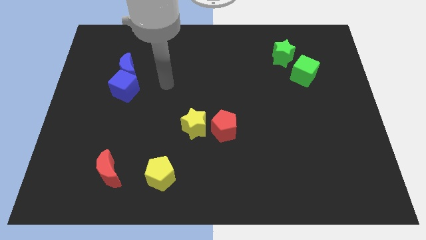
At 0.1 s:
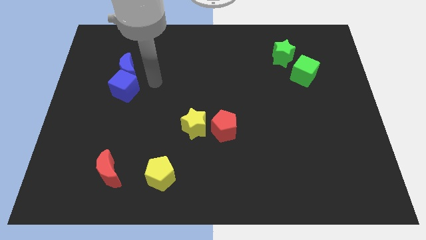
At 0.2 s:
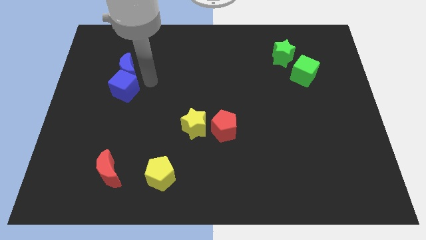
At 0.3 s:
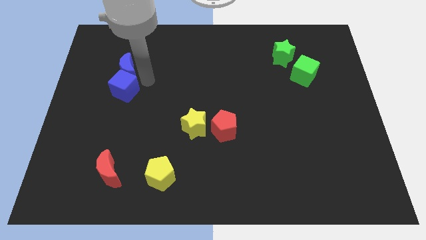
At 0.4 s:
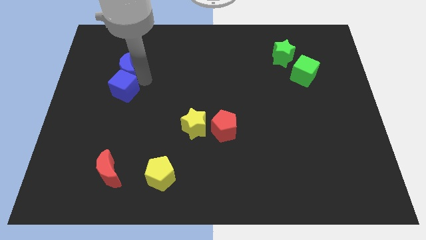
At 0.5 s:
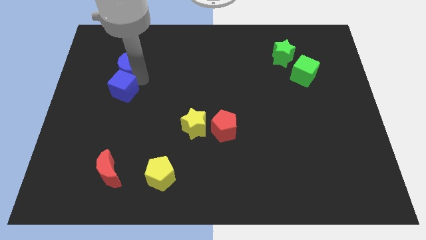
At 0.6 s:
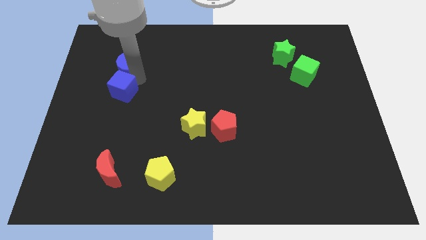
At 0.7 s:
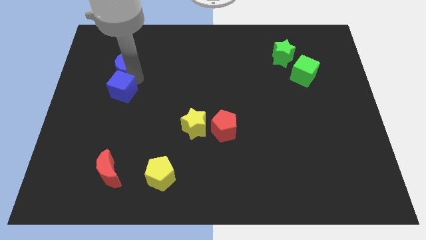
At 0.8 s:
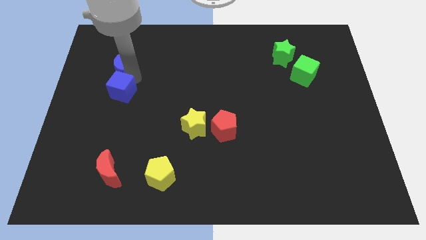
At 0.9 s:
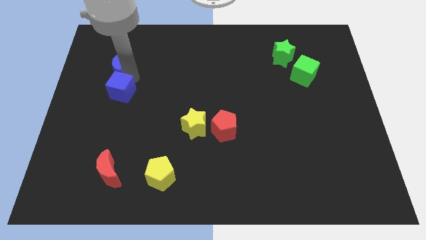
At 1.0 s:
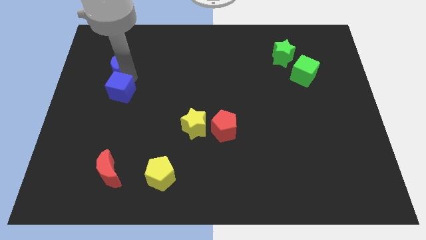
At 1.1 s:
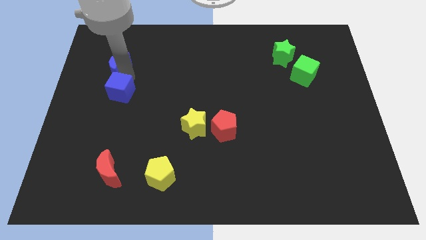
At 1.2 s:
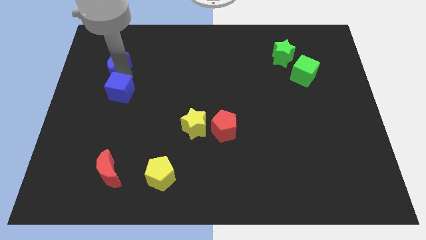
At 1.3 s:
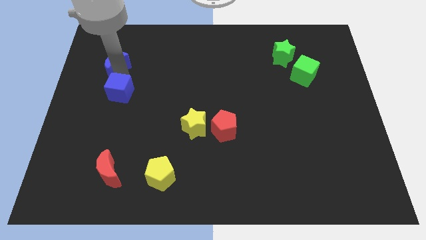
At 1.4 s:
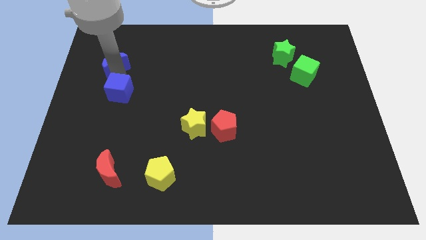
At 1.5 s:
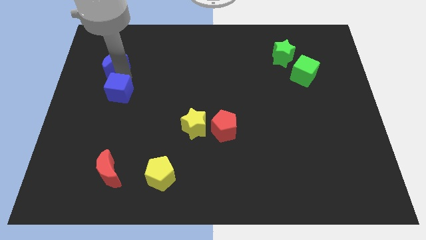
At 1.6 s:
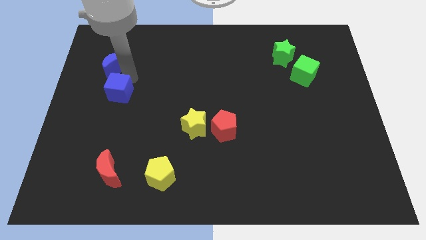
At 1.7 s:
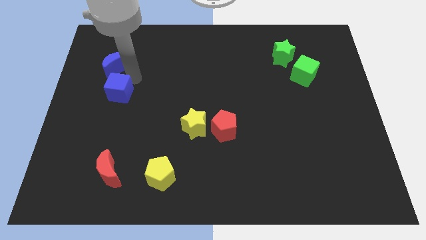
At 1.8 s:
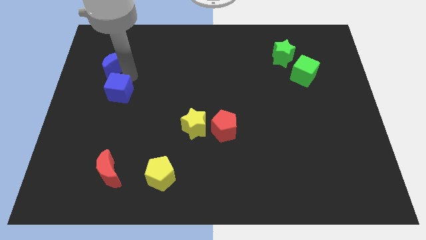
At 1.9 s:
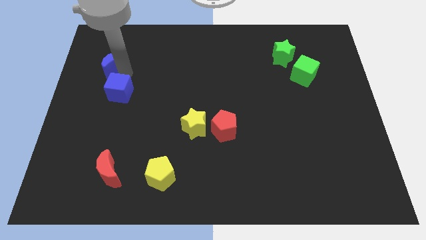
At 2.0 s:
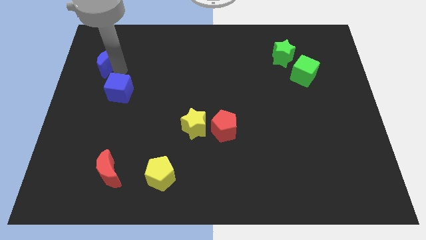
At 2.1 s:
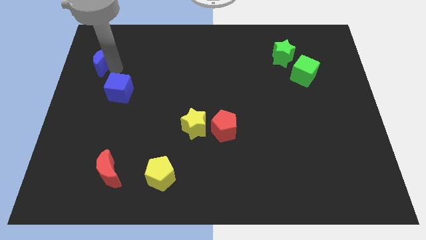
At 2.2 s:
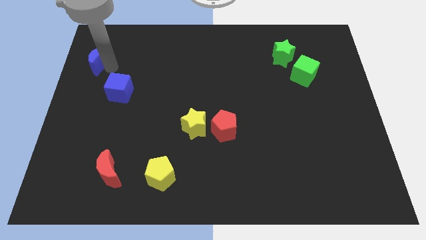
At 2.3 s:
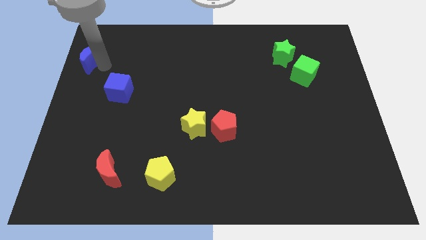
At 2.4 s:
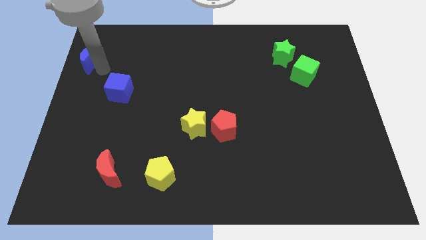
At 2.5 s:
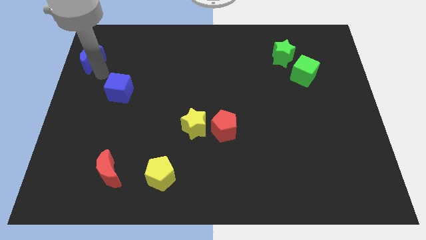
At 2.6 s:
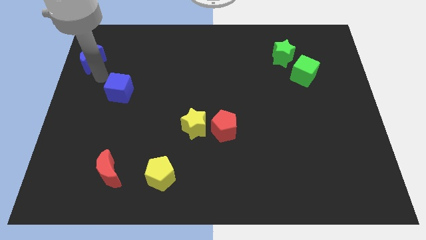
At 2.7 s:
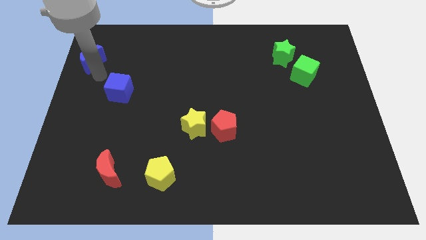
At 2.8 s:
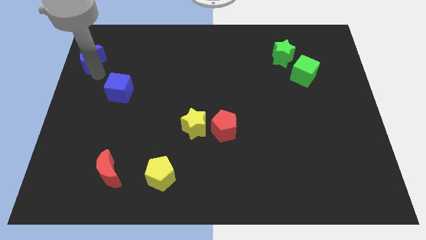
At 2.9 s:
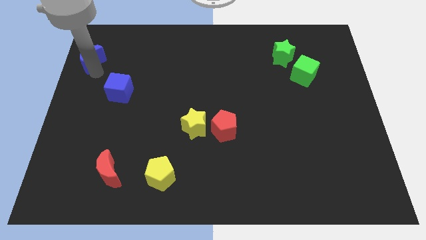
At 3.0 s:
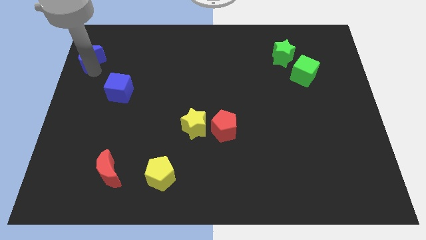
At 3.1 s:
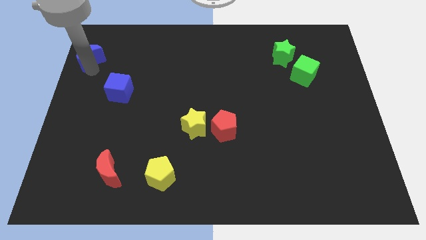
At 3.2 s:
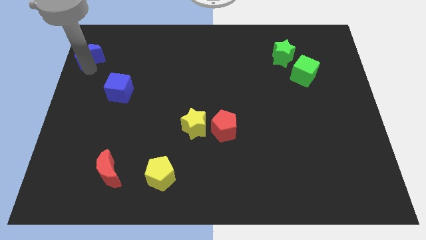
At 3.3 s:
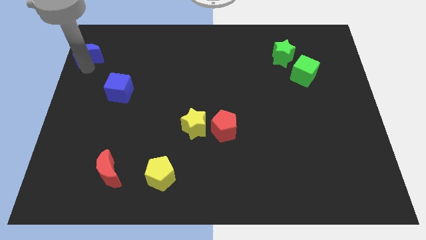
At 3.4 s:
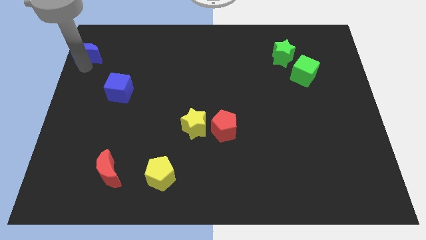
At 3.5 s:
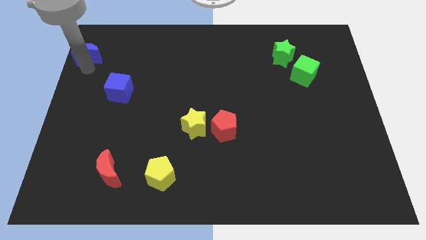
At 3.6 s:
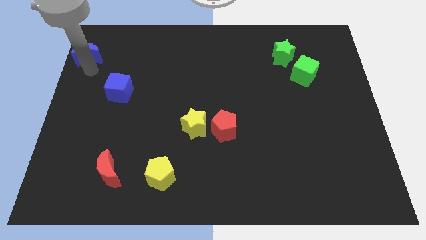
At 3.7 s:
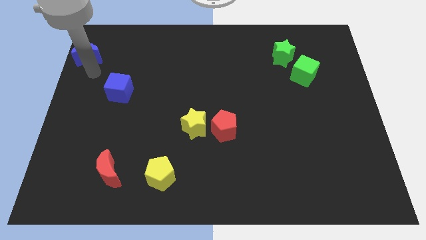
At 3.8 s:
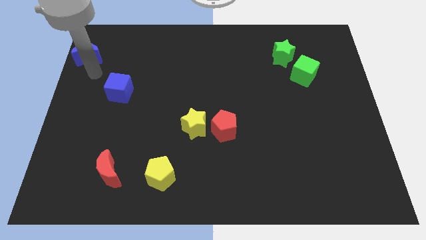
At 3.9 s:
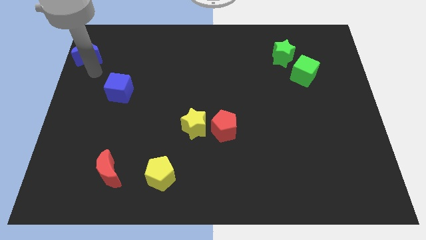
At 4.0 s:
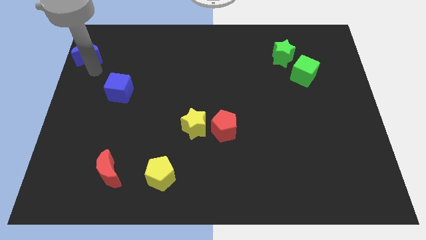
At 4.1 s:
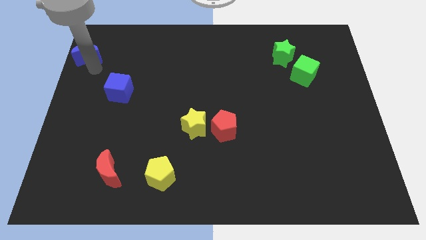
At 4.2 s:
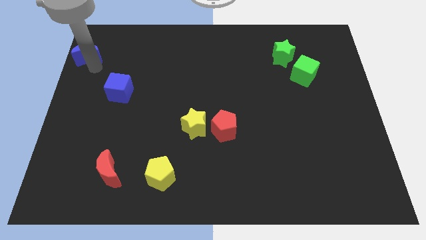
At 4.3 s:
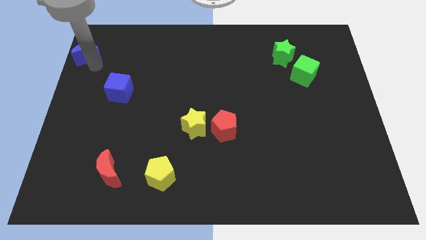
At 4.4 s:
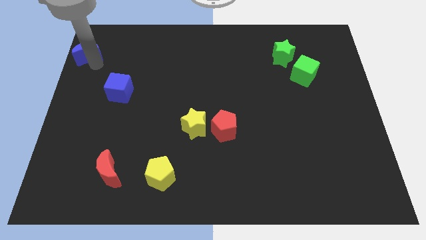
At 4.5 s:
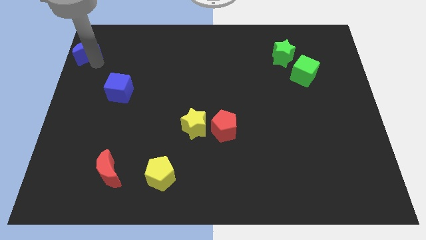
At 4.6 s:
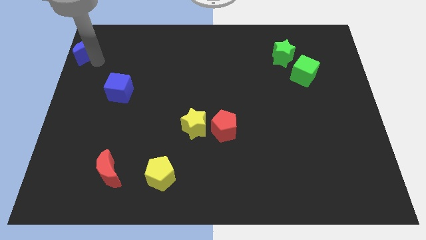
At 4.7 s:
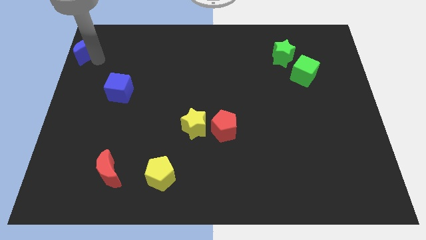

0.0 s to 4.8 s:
slide the blue moon to the top left of the board

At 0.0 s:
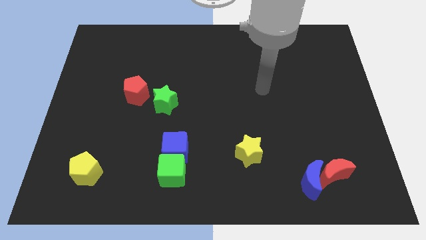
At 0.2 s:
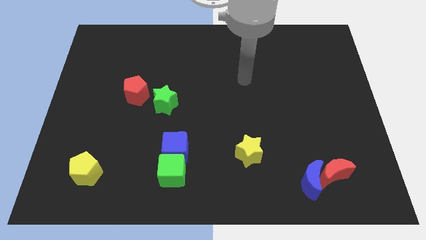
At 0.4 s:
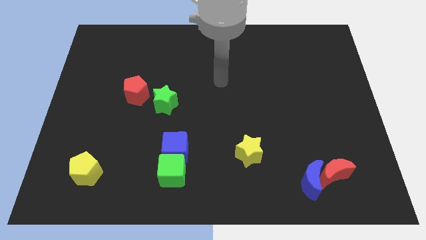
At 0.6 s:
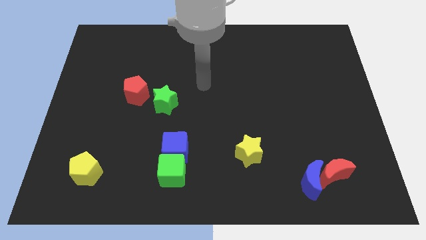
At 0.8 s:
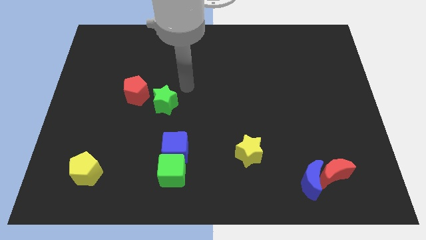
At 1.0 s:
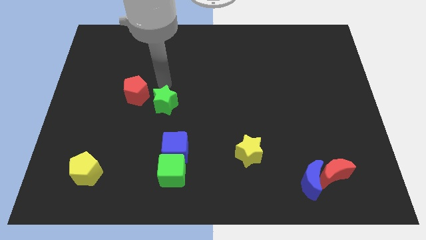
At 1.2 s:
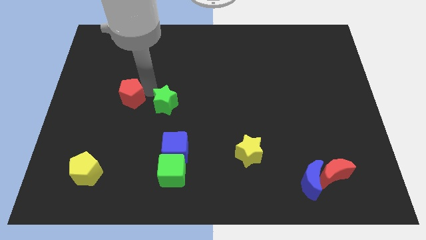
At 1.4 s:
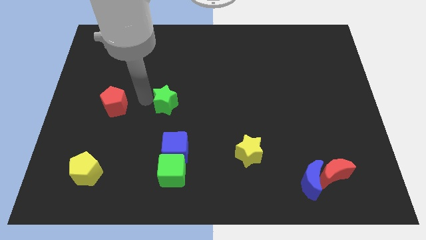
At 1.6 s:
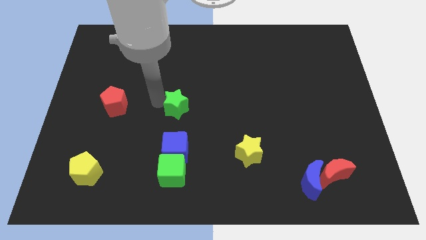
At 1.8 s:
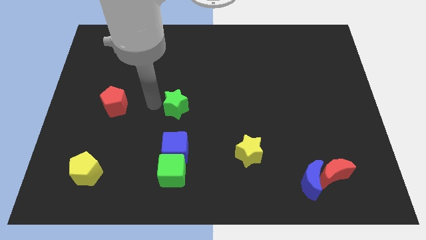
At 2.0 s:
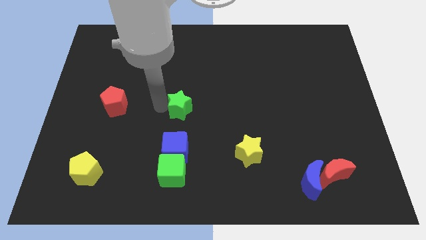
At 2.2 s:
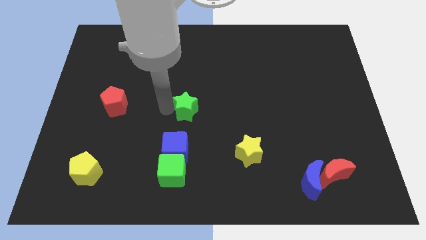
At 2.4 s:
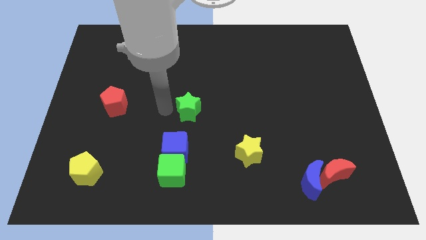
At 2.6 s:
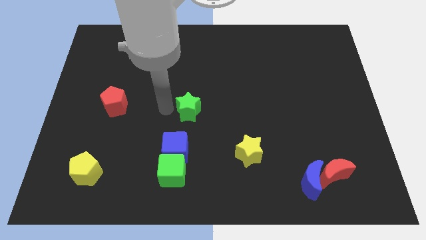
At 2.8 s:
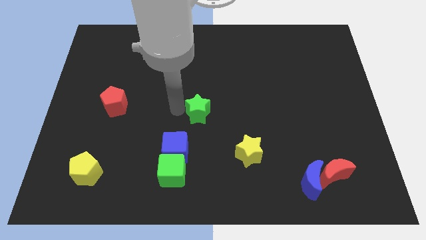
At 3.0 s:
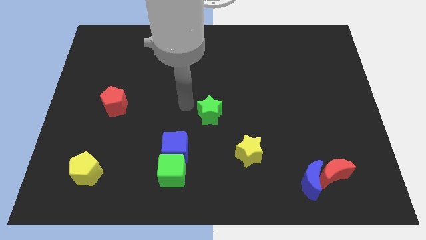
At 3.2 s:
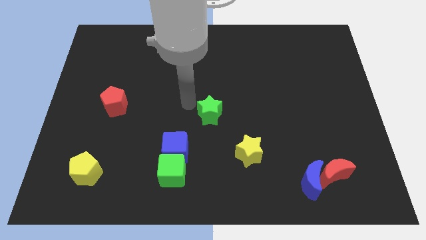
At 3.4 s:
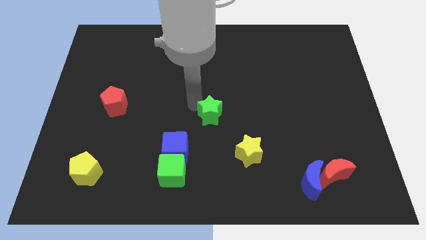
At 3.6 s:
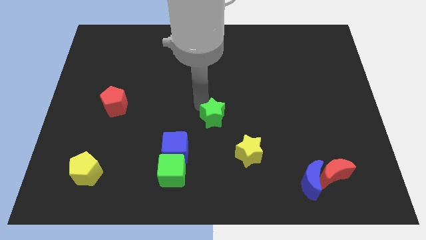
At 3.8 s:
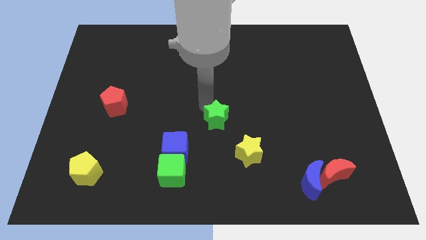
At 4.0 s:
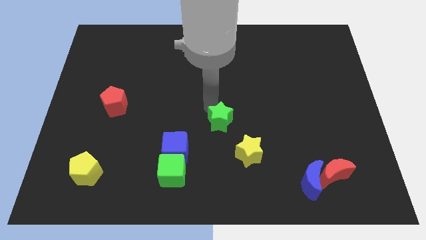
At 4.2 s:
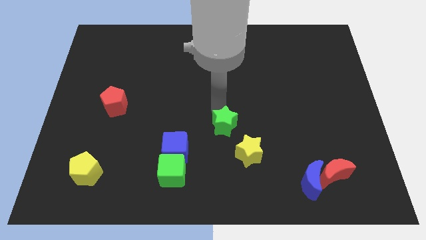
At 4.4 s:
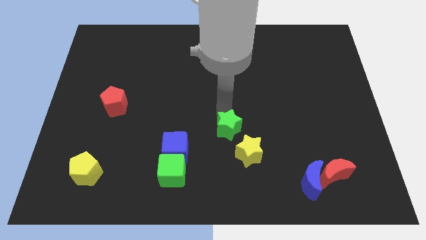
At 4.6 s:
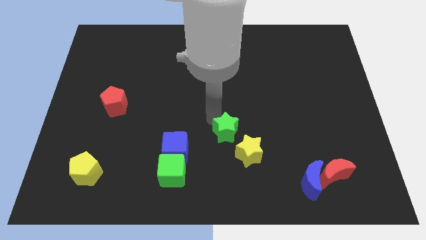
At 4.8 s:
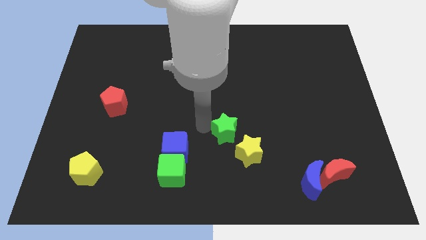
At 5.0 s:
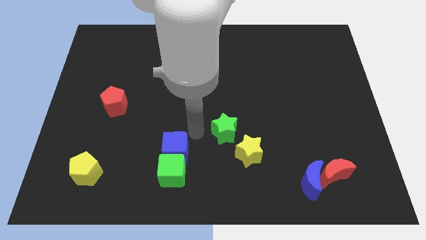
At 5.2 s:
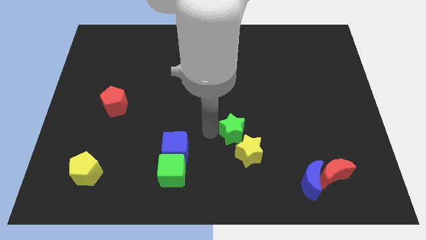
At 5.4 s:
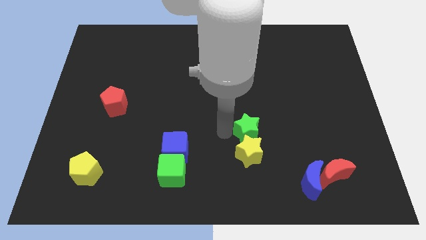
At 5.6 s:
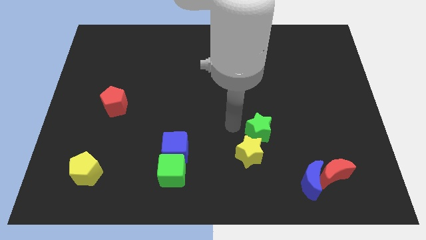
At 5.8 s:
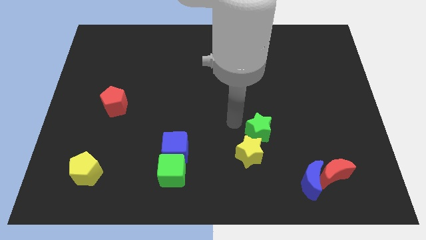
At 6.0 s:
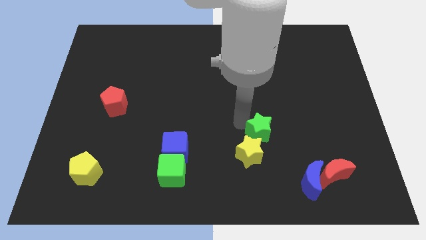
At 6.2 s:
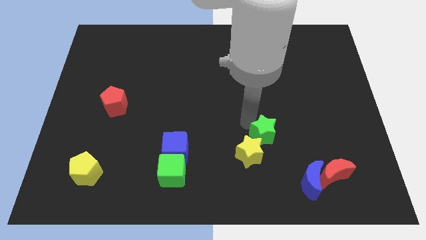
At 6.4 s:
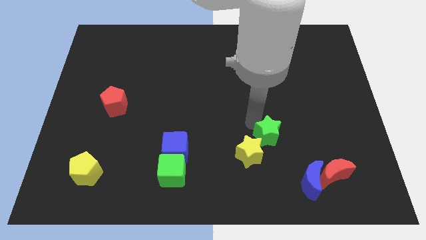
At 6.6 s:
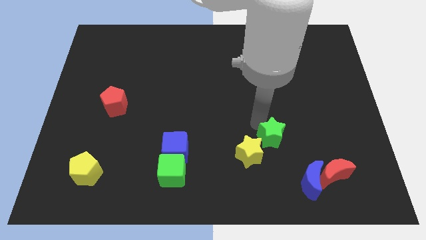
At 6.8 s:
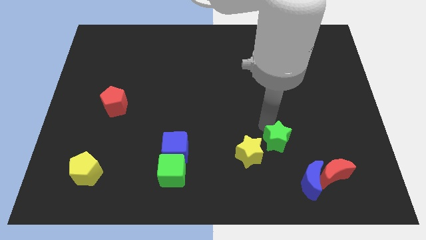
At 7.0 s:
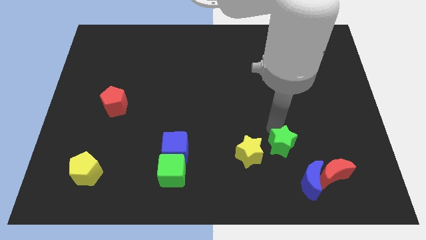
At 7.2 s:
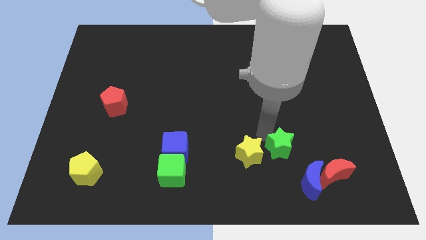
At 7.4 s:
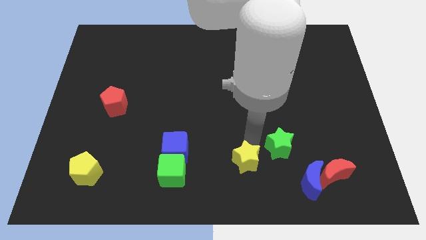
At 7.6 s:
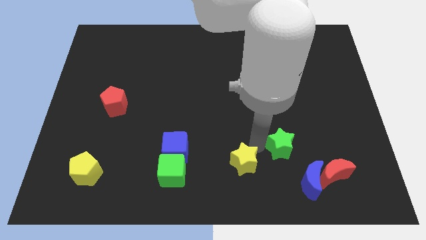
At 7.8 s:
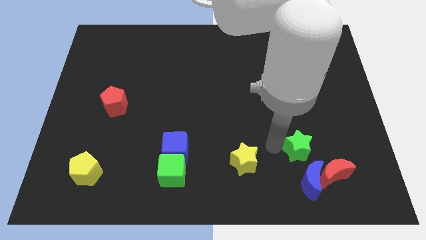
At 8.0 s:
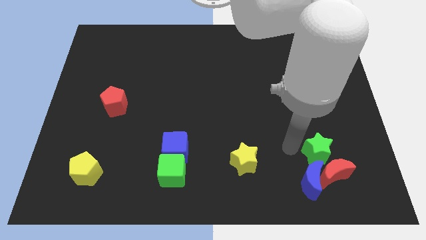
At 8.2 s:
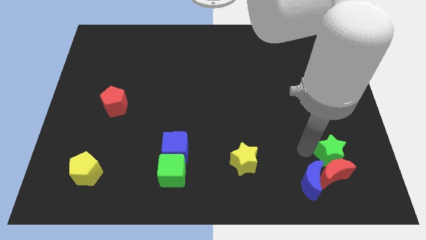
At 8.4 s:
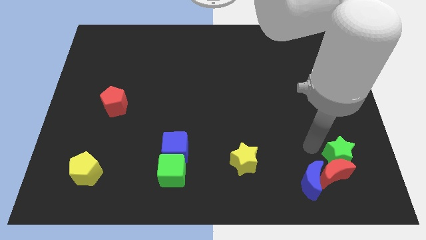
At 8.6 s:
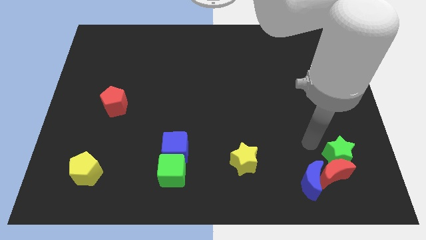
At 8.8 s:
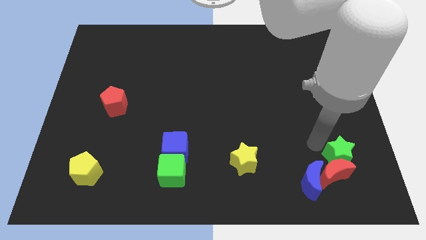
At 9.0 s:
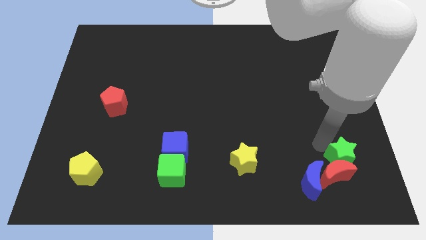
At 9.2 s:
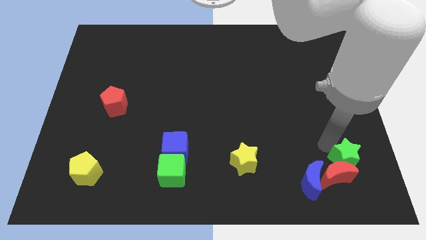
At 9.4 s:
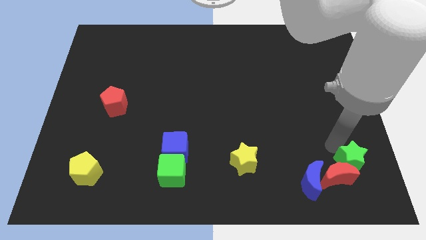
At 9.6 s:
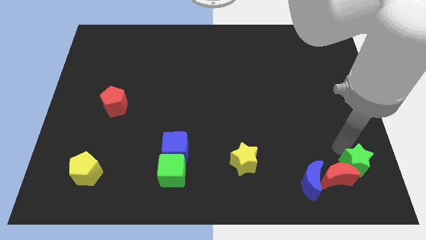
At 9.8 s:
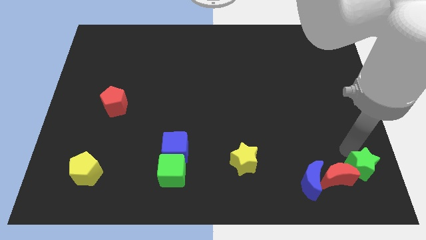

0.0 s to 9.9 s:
slide the green star to the bottom right of the board
